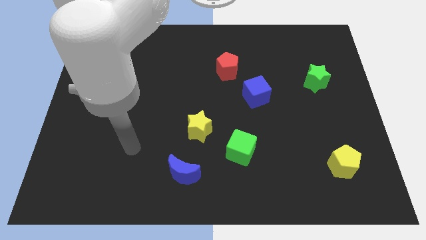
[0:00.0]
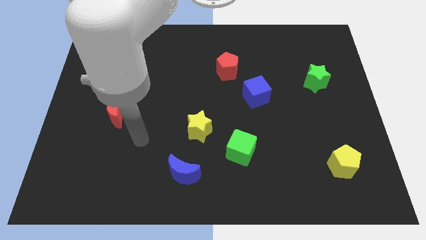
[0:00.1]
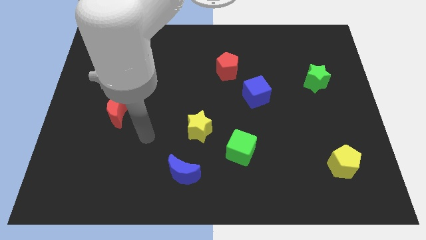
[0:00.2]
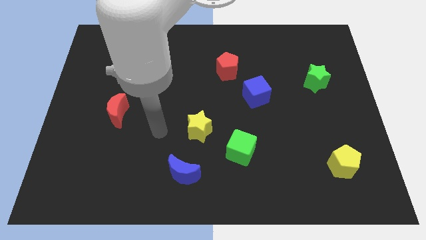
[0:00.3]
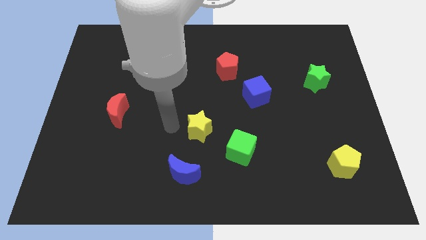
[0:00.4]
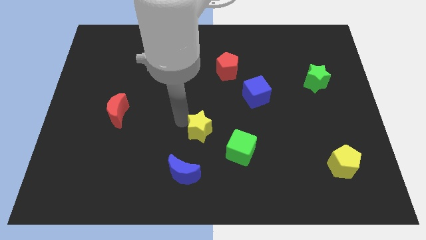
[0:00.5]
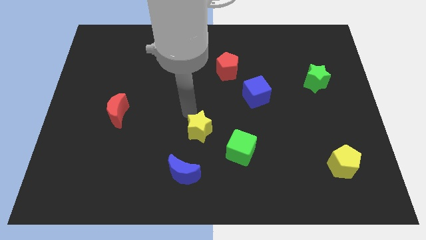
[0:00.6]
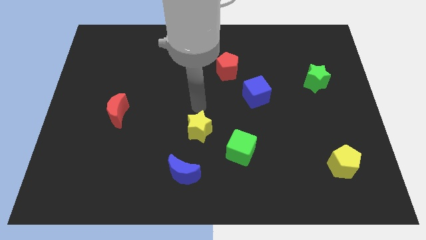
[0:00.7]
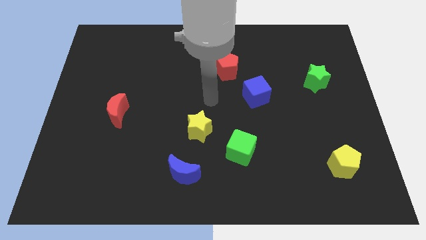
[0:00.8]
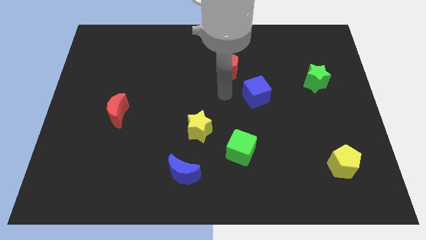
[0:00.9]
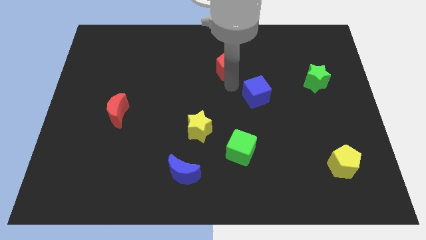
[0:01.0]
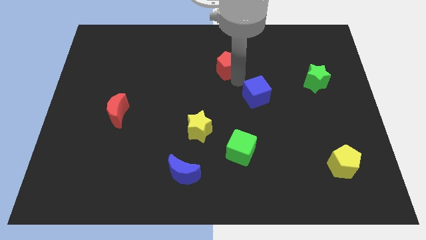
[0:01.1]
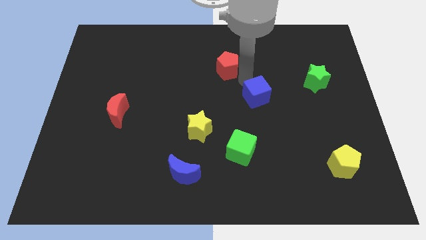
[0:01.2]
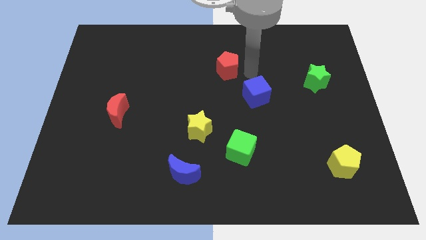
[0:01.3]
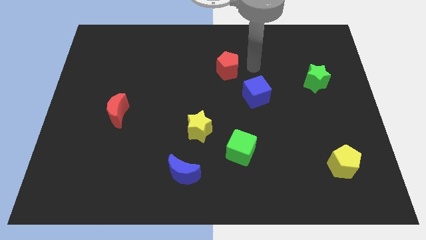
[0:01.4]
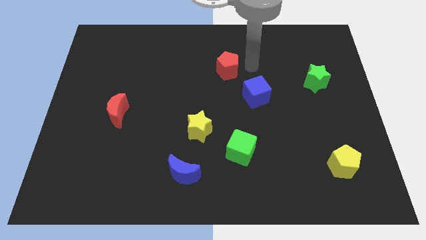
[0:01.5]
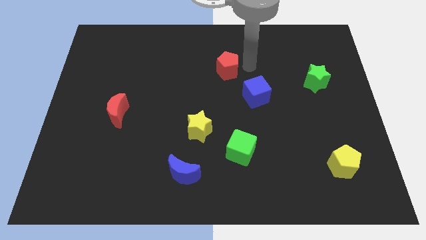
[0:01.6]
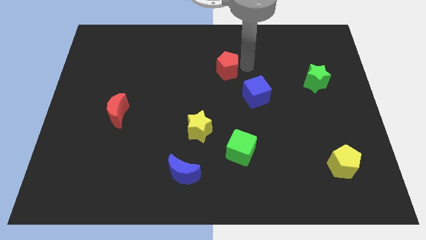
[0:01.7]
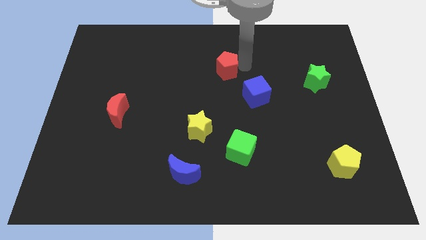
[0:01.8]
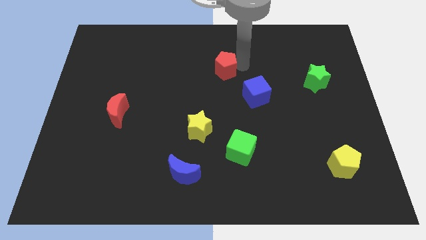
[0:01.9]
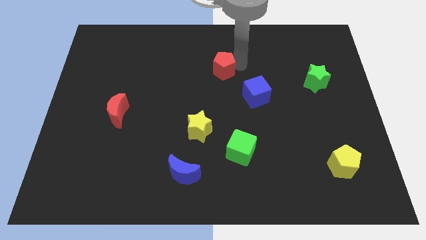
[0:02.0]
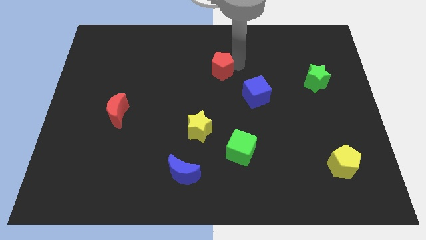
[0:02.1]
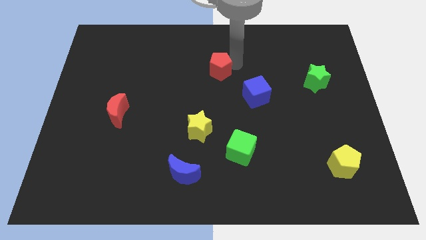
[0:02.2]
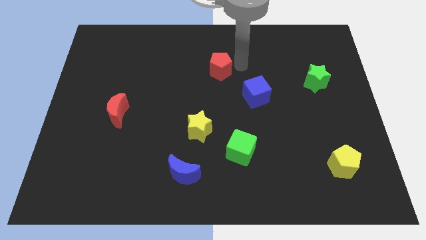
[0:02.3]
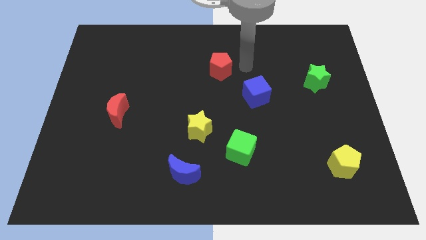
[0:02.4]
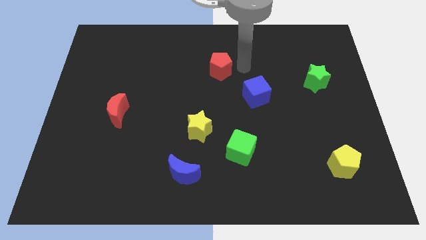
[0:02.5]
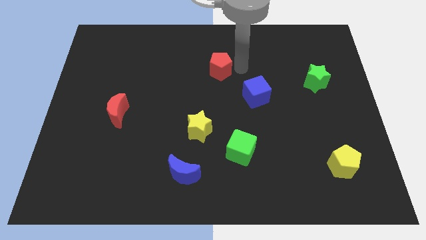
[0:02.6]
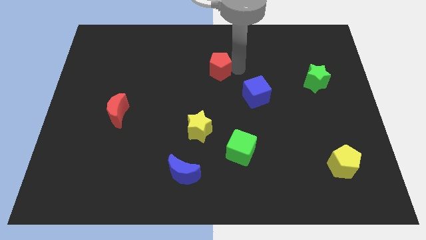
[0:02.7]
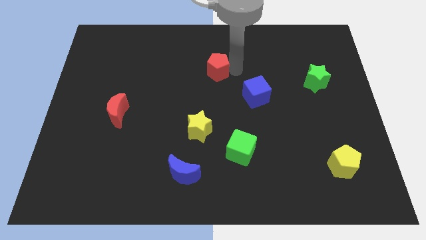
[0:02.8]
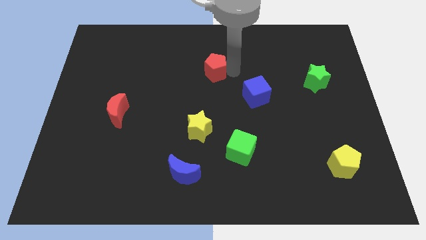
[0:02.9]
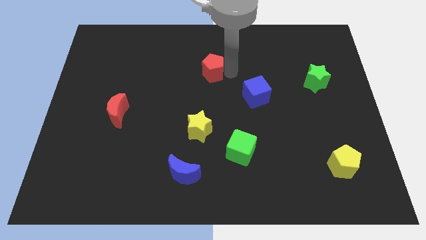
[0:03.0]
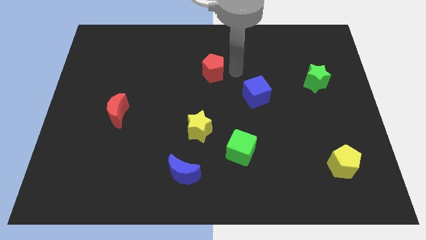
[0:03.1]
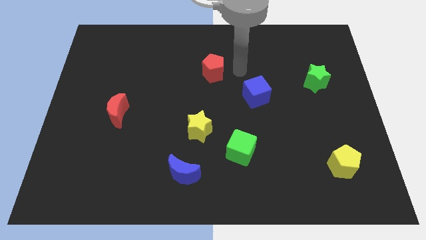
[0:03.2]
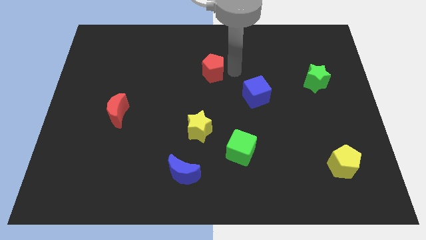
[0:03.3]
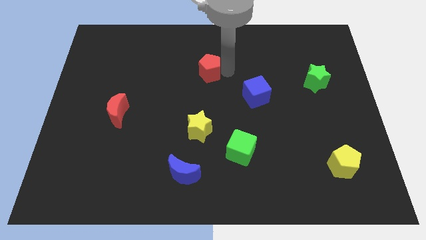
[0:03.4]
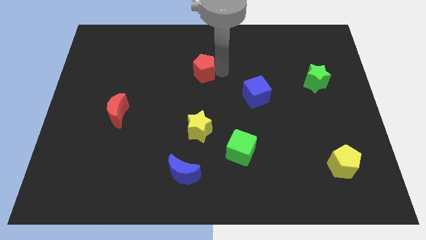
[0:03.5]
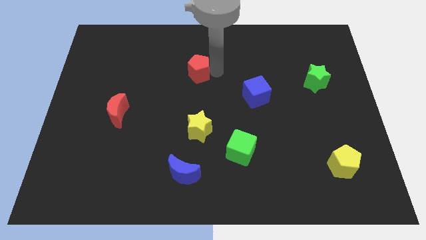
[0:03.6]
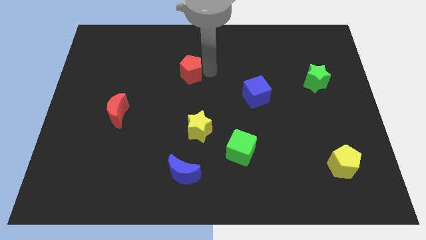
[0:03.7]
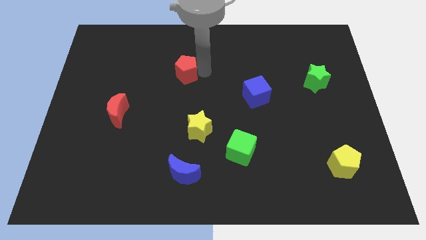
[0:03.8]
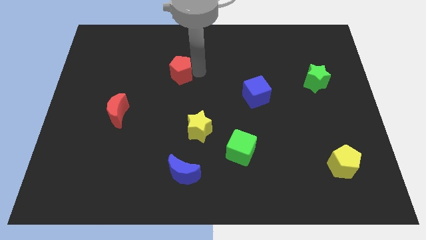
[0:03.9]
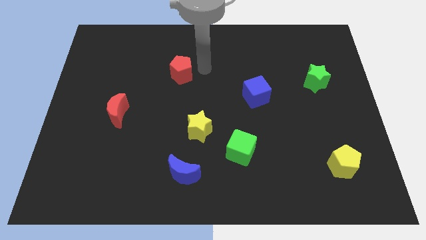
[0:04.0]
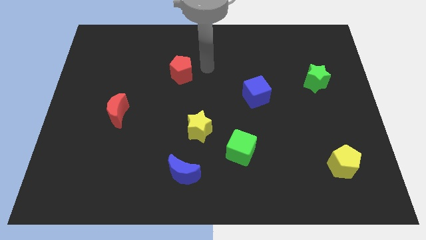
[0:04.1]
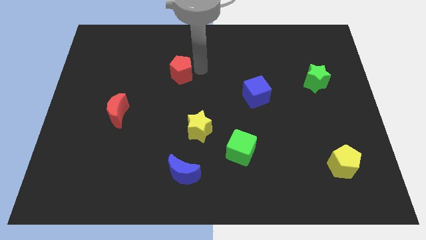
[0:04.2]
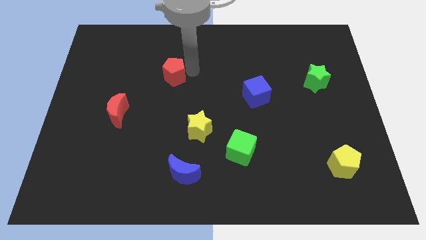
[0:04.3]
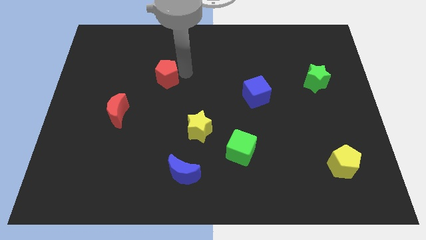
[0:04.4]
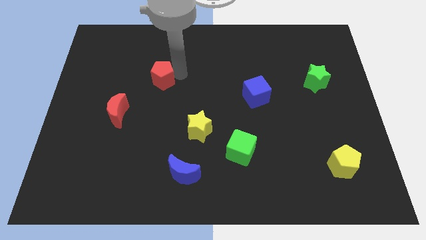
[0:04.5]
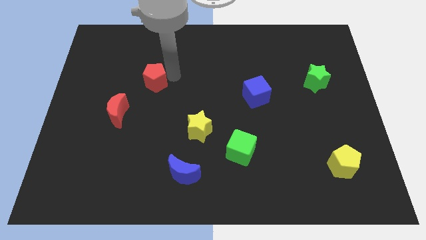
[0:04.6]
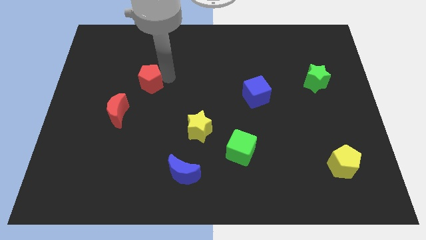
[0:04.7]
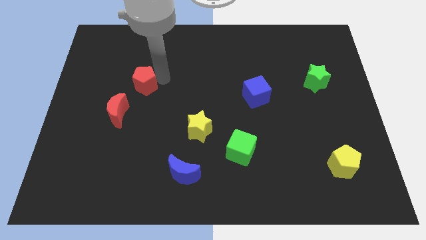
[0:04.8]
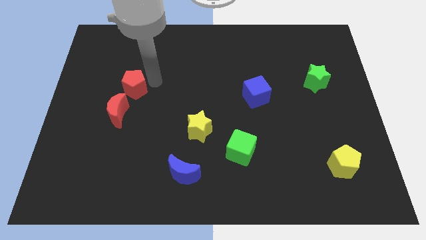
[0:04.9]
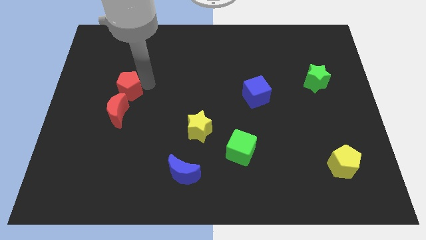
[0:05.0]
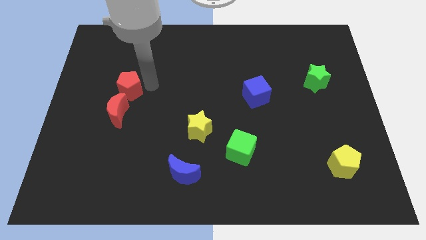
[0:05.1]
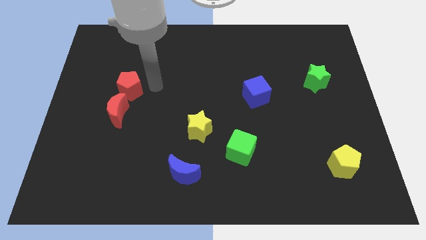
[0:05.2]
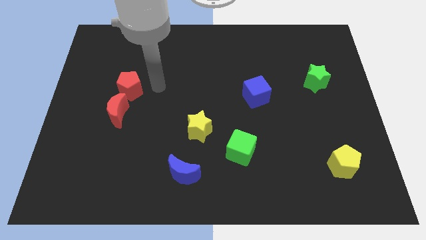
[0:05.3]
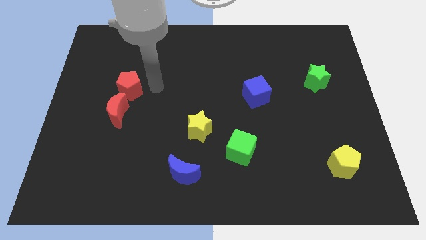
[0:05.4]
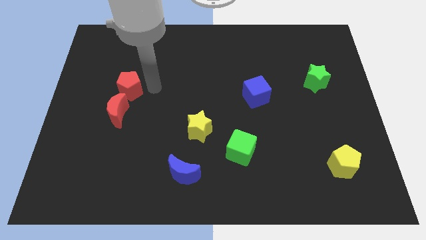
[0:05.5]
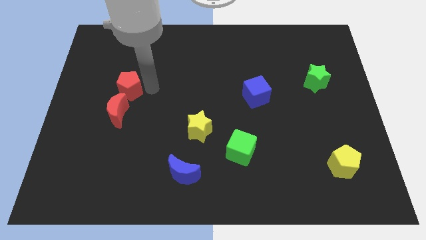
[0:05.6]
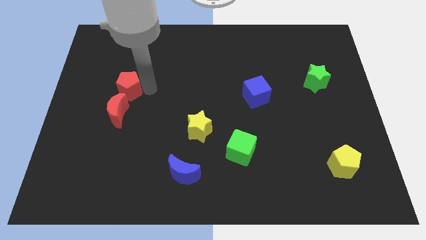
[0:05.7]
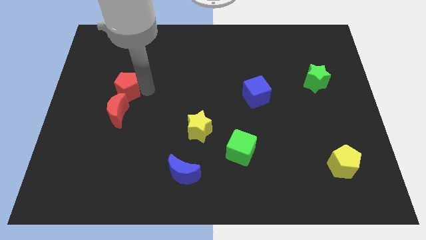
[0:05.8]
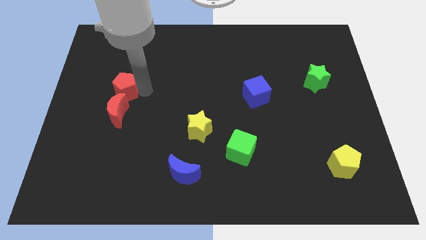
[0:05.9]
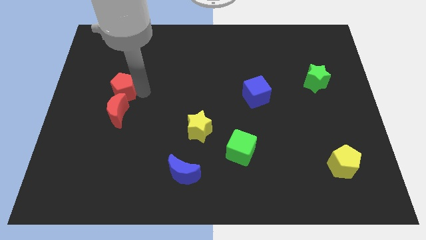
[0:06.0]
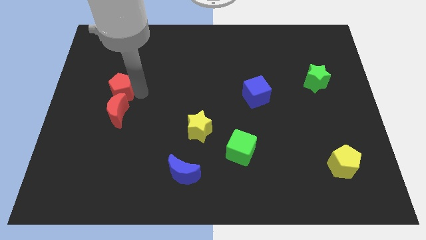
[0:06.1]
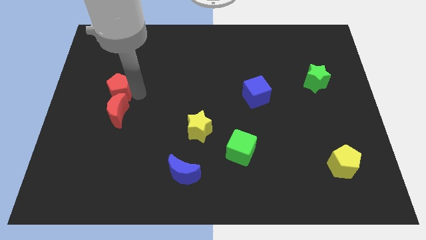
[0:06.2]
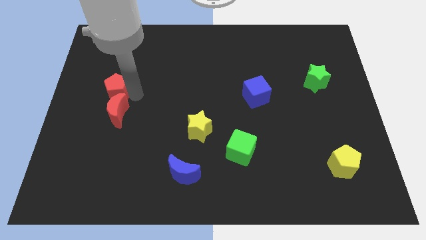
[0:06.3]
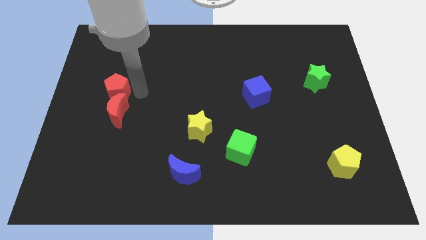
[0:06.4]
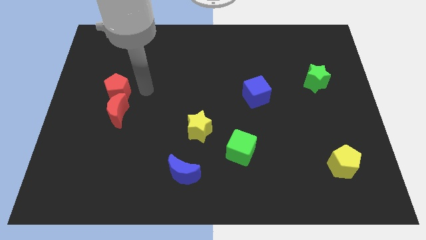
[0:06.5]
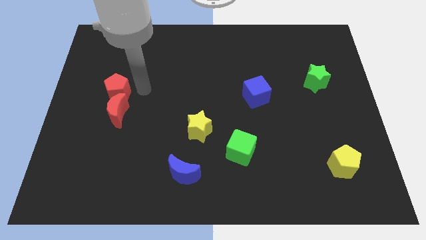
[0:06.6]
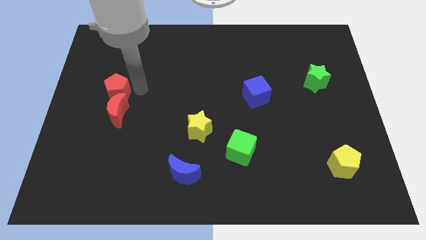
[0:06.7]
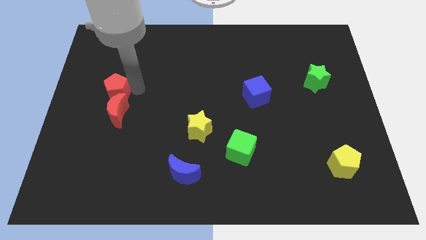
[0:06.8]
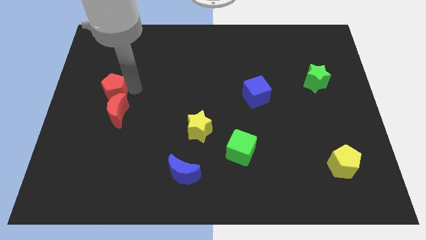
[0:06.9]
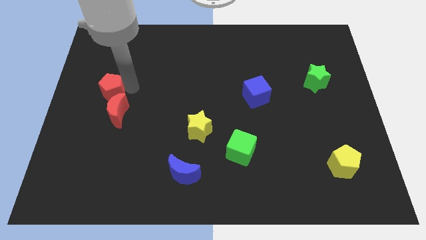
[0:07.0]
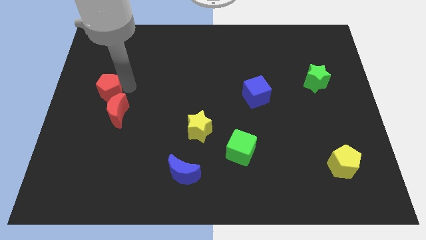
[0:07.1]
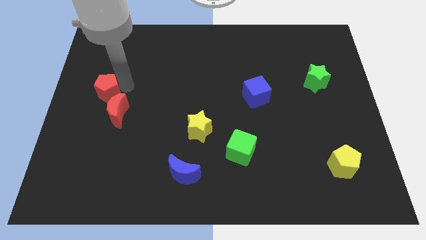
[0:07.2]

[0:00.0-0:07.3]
move the red pentagon to the left side
